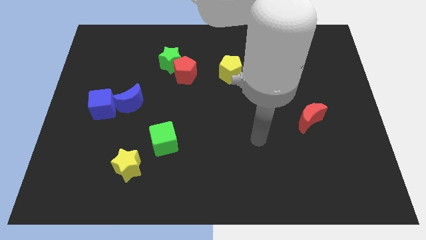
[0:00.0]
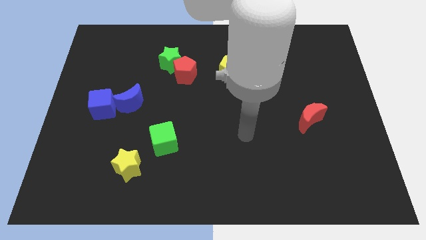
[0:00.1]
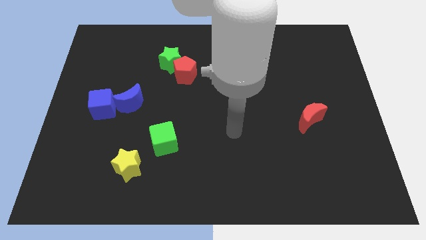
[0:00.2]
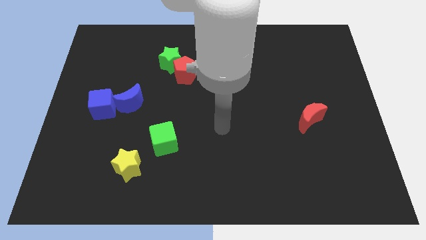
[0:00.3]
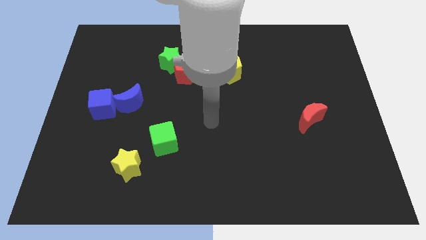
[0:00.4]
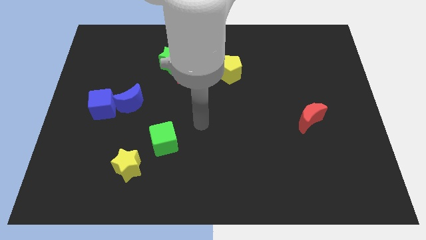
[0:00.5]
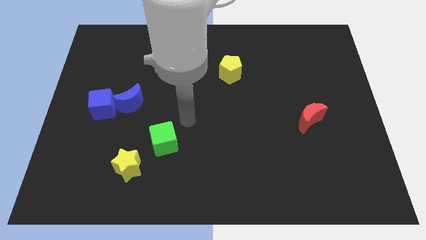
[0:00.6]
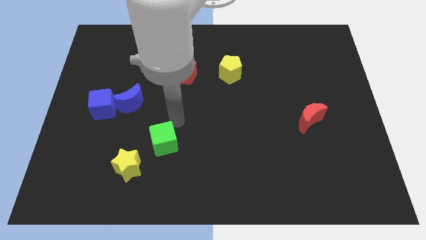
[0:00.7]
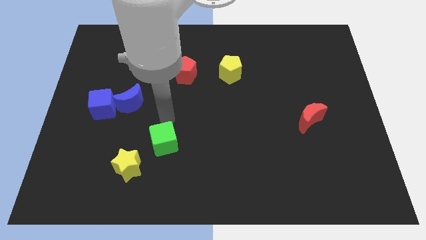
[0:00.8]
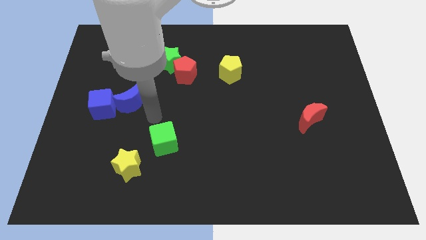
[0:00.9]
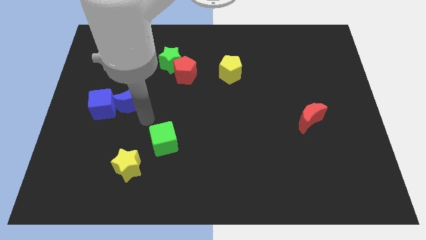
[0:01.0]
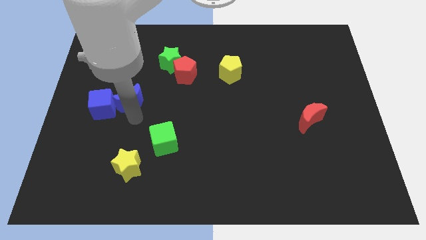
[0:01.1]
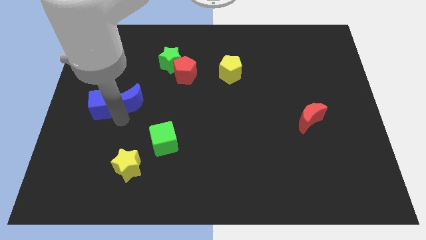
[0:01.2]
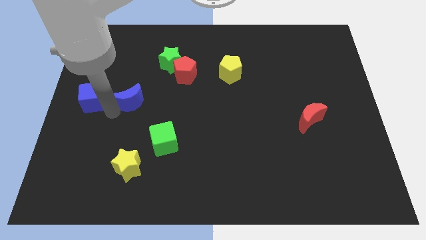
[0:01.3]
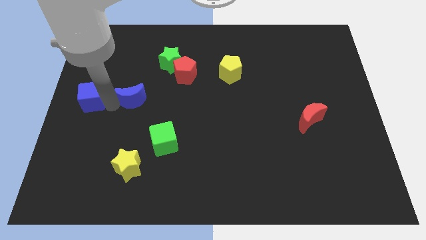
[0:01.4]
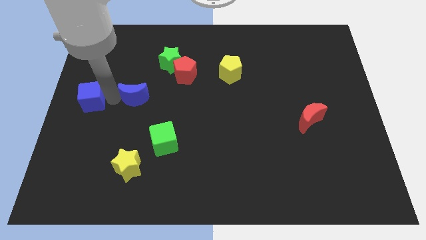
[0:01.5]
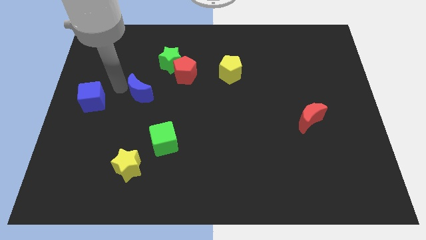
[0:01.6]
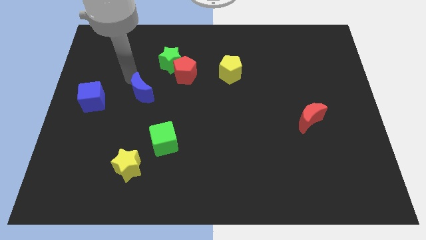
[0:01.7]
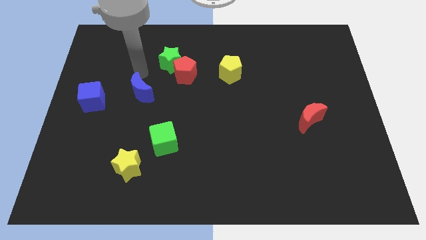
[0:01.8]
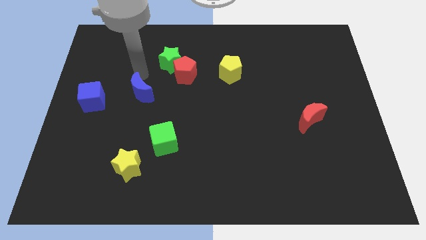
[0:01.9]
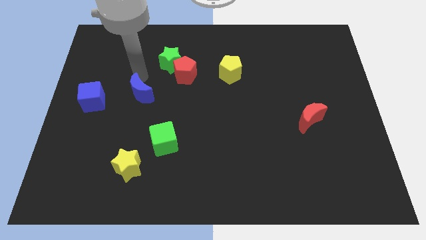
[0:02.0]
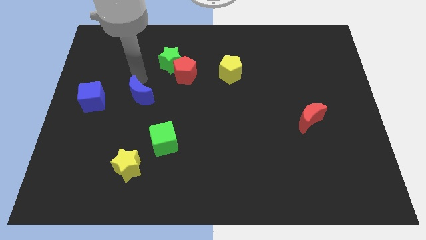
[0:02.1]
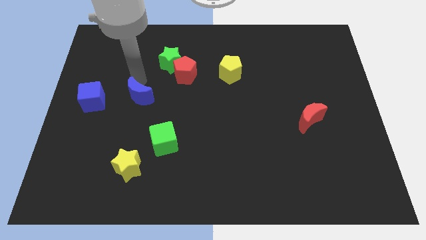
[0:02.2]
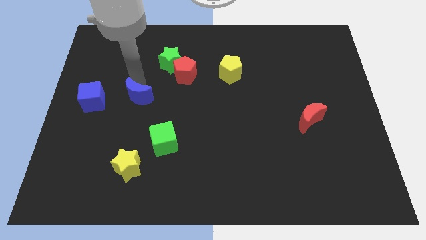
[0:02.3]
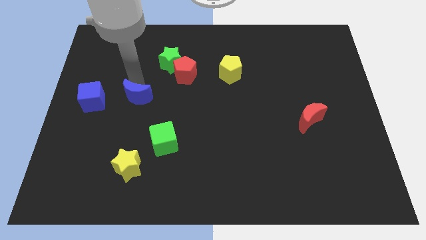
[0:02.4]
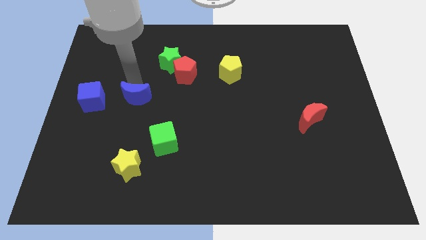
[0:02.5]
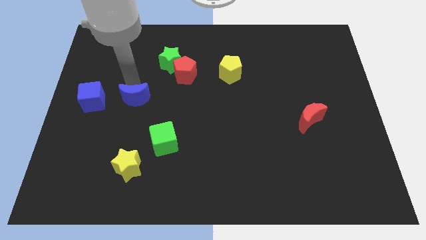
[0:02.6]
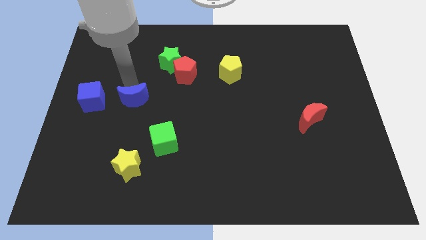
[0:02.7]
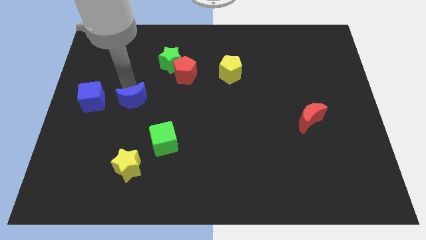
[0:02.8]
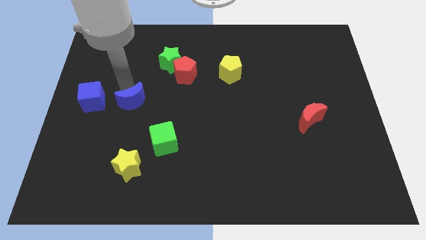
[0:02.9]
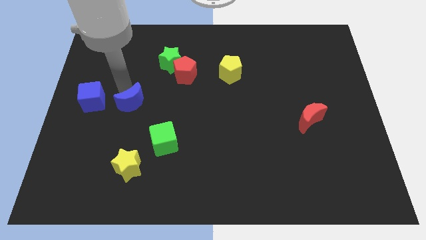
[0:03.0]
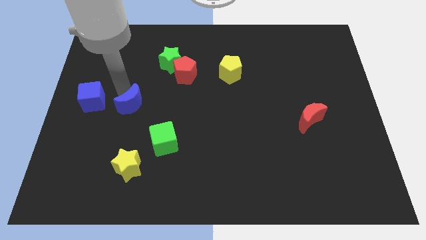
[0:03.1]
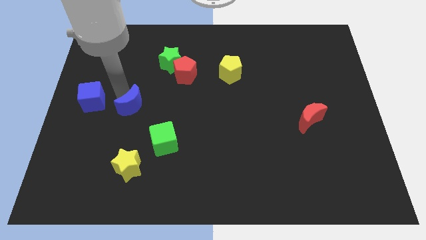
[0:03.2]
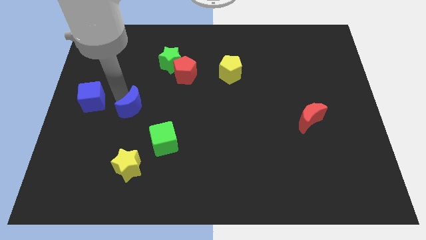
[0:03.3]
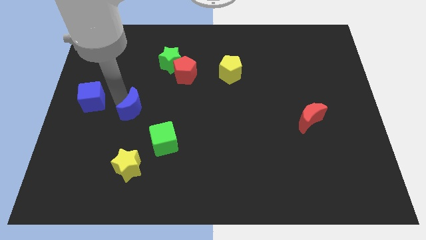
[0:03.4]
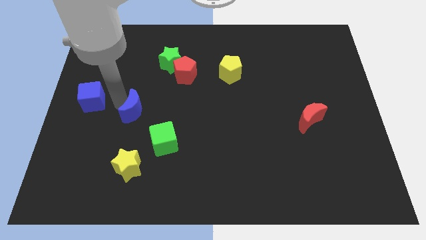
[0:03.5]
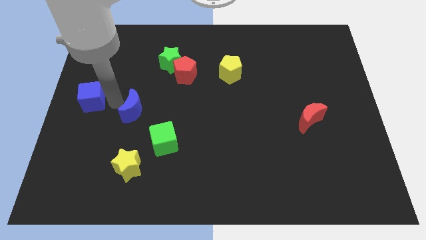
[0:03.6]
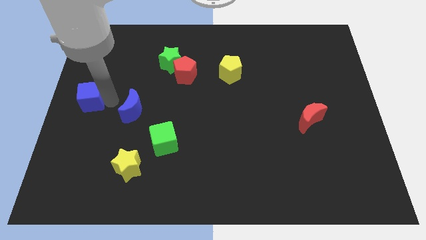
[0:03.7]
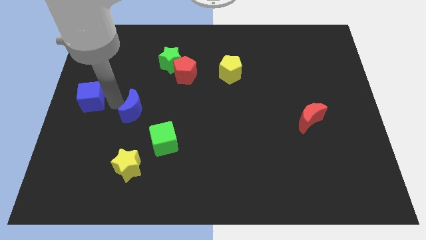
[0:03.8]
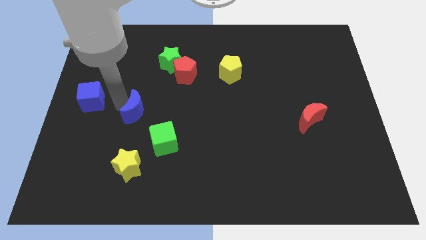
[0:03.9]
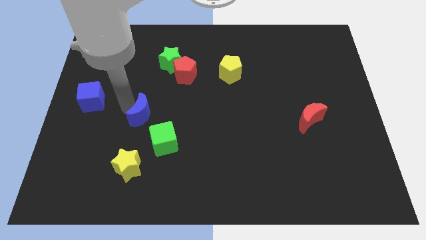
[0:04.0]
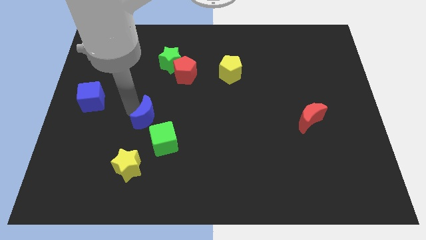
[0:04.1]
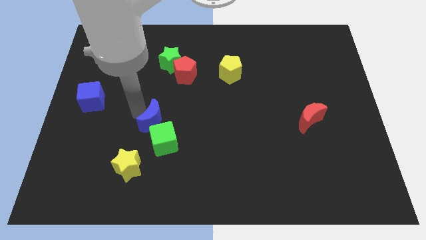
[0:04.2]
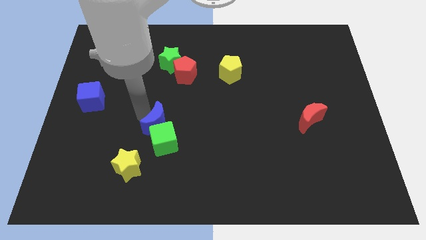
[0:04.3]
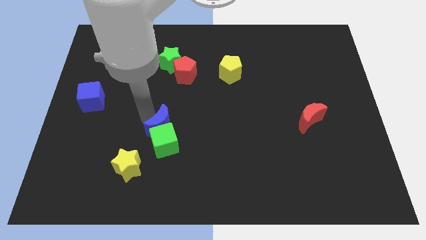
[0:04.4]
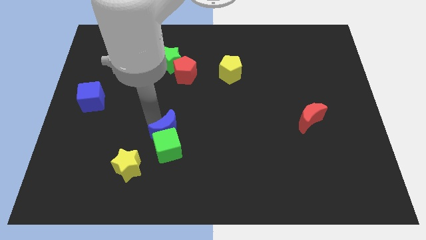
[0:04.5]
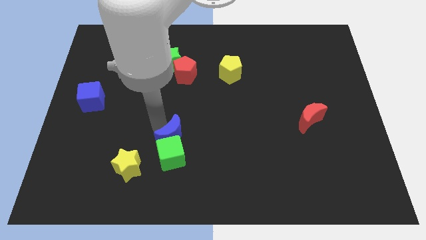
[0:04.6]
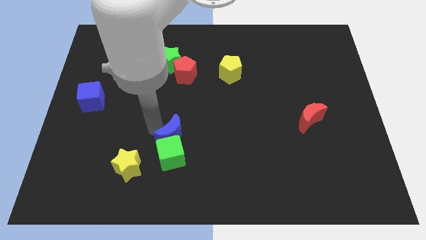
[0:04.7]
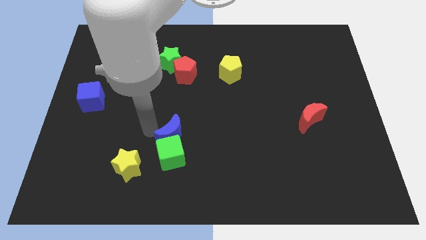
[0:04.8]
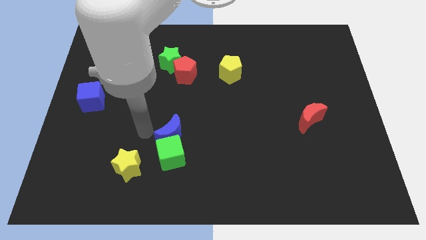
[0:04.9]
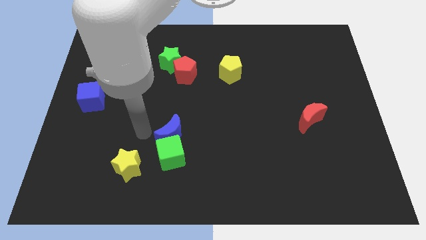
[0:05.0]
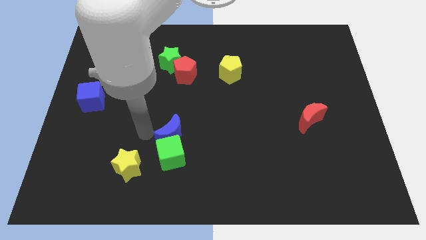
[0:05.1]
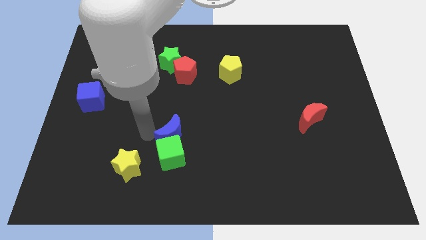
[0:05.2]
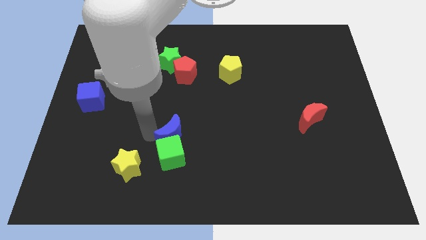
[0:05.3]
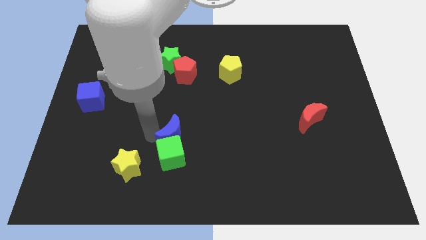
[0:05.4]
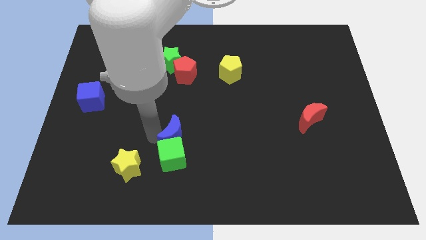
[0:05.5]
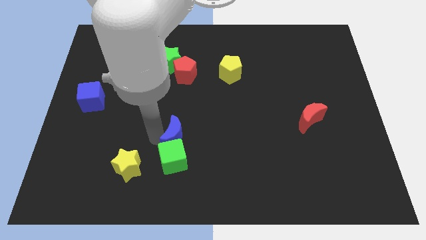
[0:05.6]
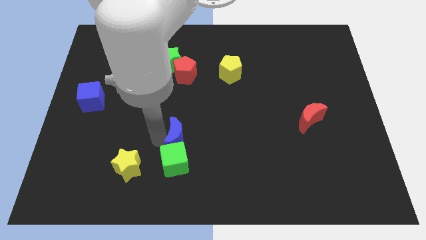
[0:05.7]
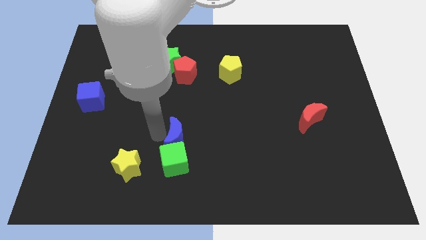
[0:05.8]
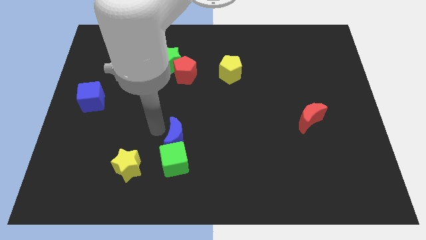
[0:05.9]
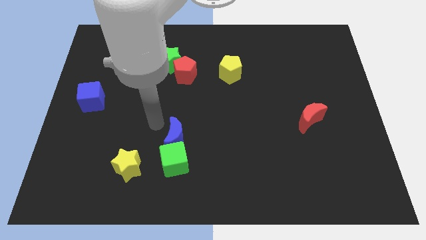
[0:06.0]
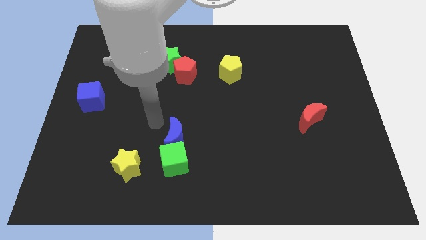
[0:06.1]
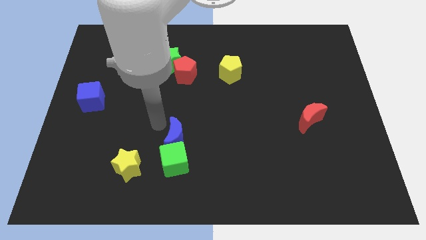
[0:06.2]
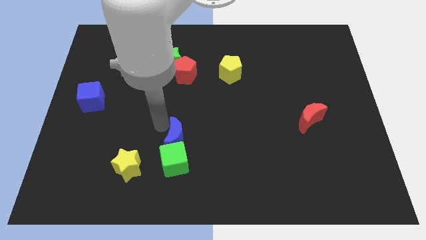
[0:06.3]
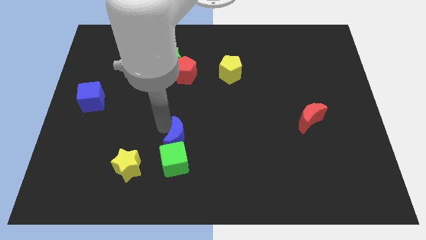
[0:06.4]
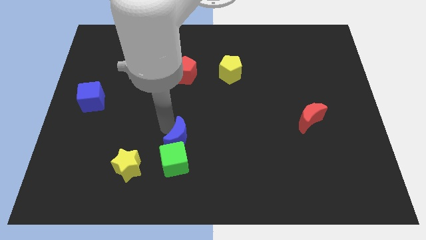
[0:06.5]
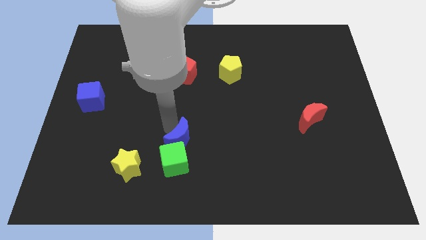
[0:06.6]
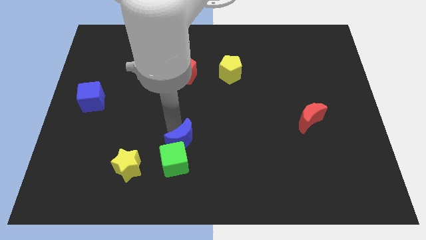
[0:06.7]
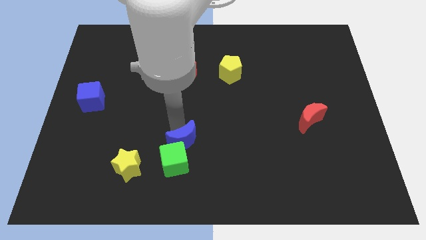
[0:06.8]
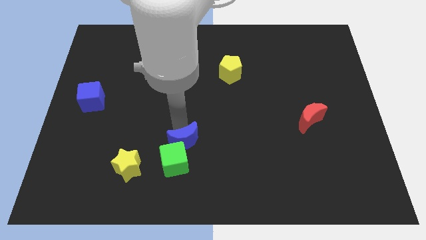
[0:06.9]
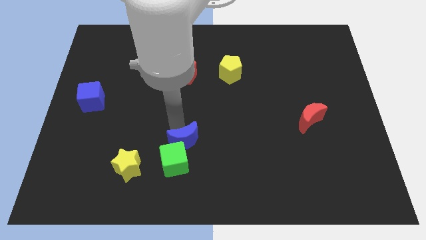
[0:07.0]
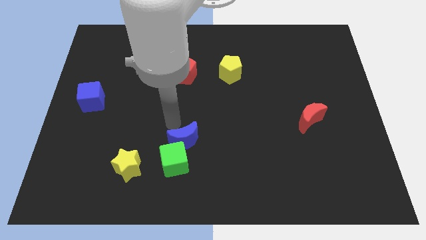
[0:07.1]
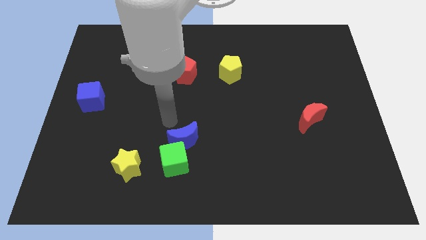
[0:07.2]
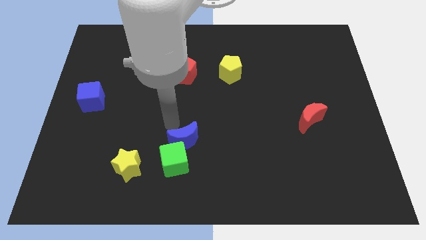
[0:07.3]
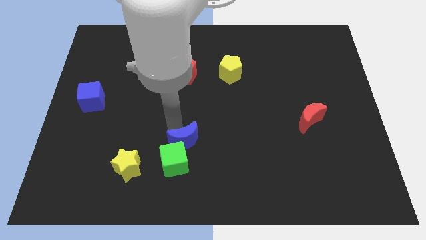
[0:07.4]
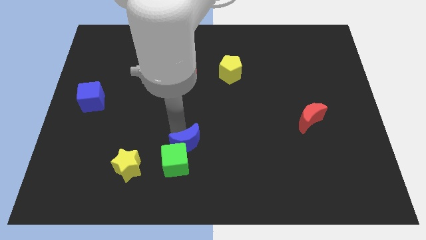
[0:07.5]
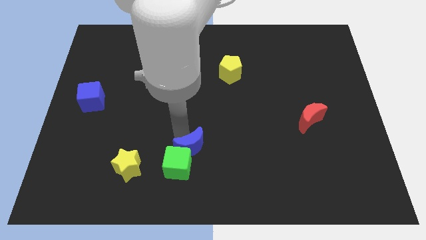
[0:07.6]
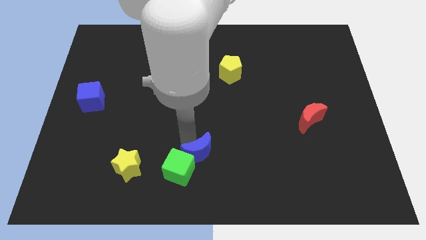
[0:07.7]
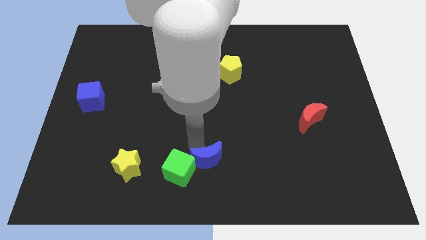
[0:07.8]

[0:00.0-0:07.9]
push the blue moon to the bottom side
